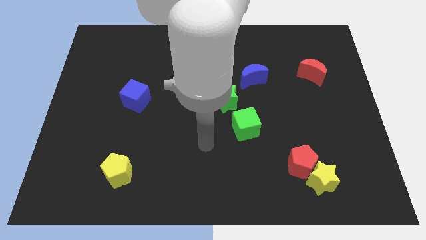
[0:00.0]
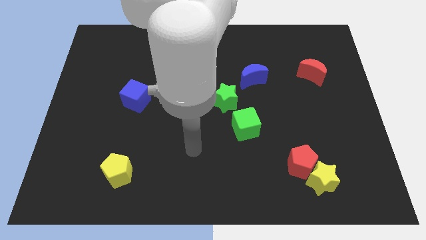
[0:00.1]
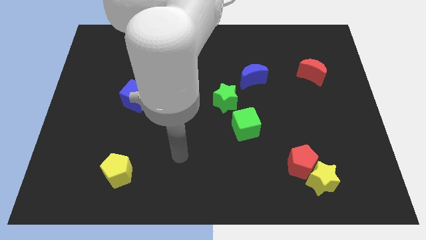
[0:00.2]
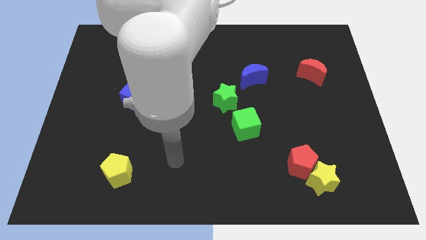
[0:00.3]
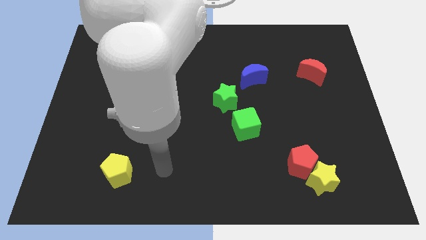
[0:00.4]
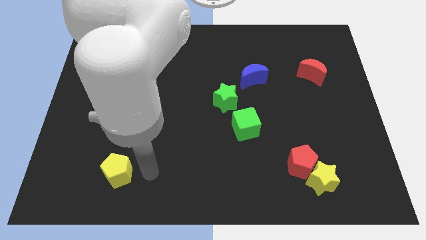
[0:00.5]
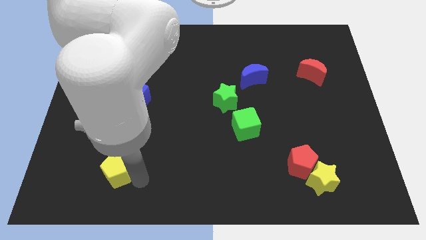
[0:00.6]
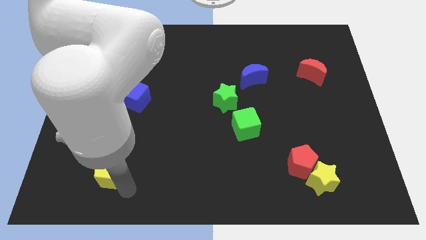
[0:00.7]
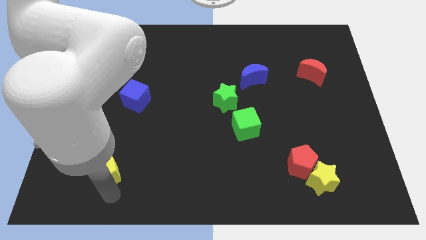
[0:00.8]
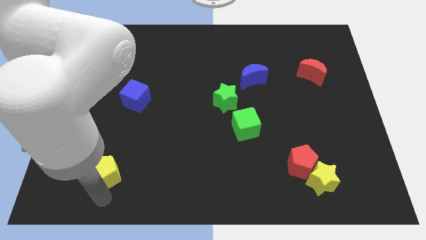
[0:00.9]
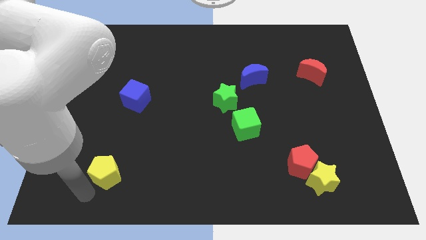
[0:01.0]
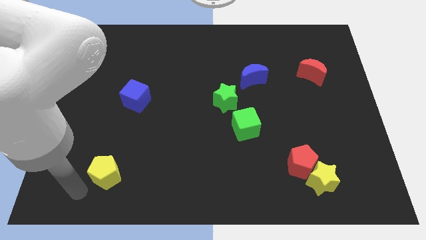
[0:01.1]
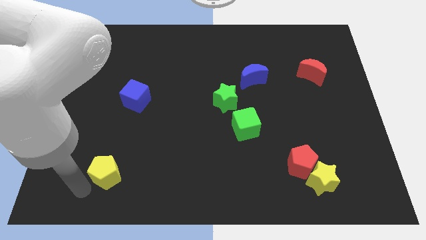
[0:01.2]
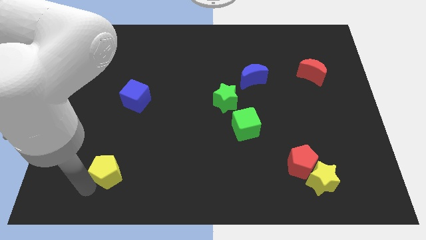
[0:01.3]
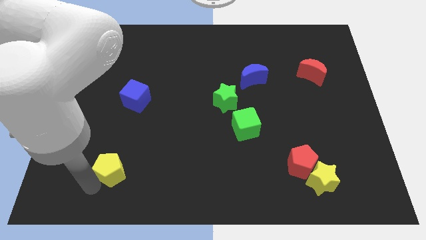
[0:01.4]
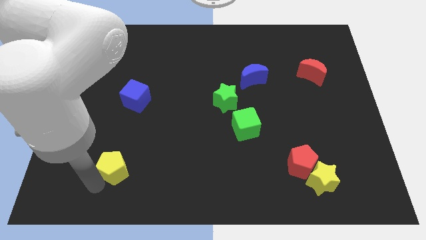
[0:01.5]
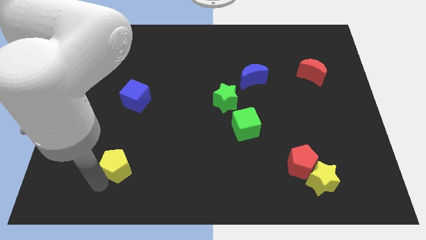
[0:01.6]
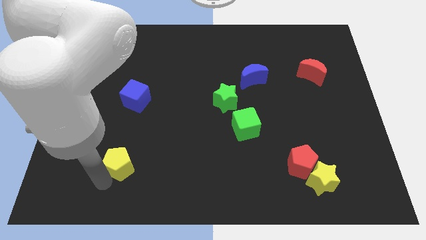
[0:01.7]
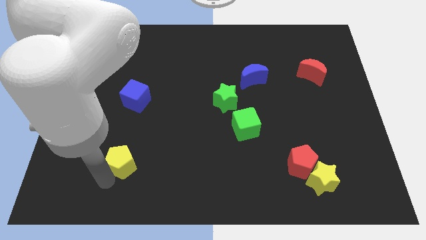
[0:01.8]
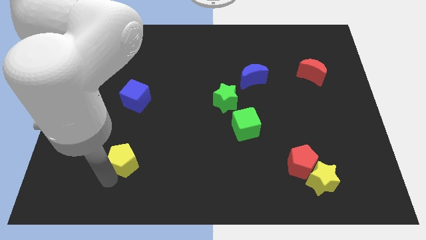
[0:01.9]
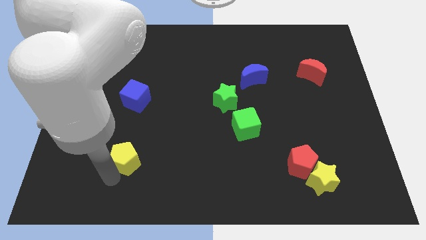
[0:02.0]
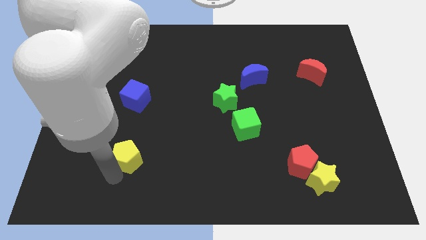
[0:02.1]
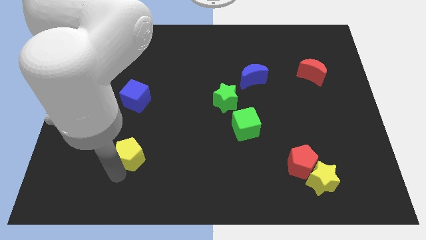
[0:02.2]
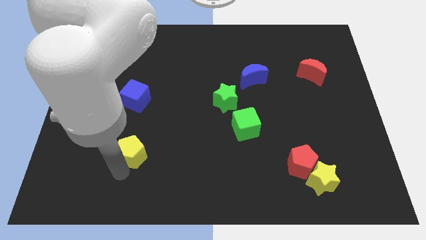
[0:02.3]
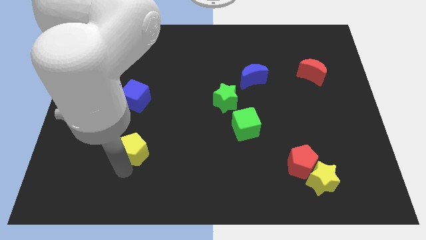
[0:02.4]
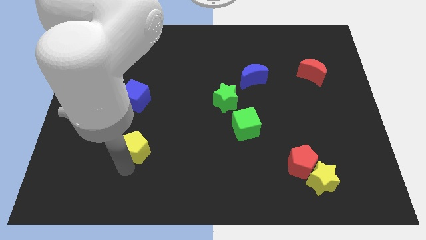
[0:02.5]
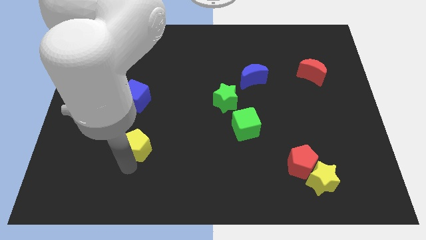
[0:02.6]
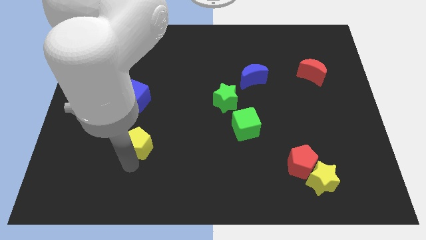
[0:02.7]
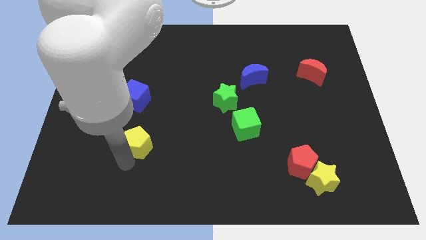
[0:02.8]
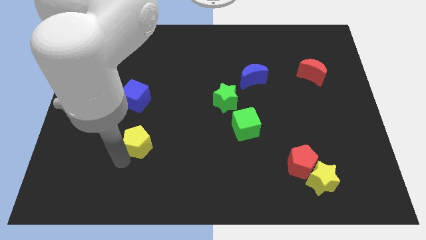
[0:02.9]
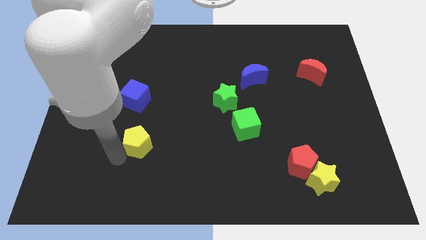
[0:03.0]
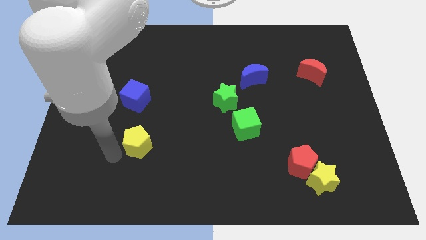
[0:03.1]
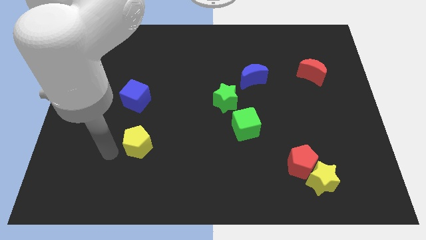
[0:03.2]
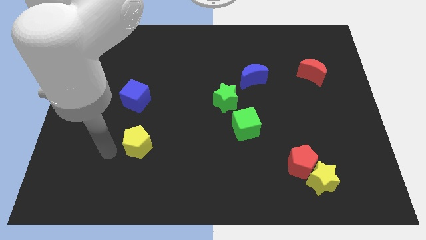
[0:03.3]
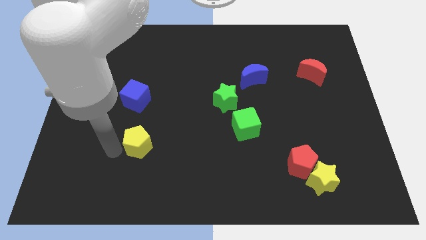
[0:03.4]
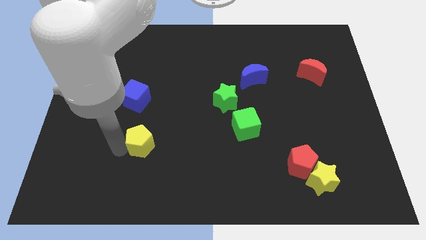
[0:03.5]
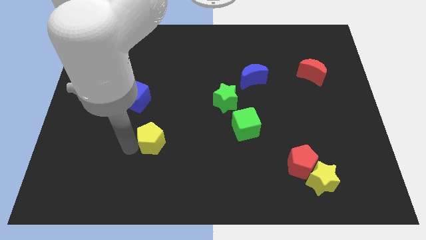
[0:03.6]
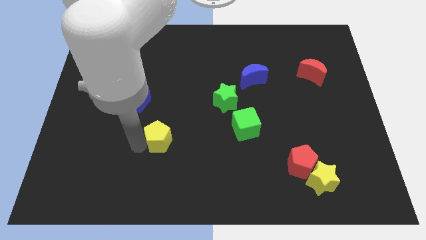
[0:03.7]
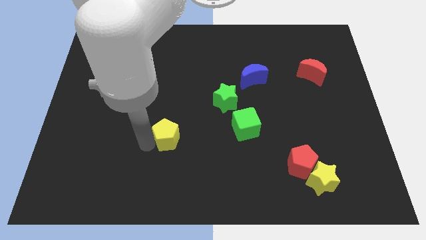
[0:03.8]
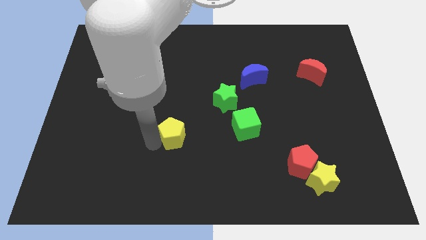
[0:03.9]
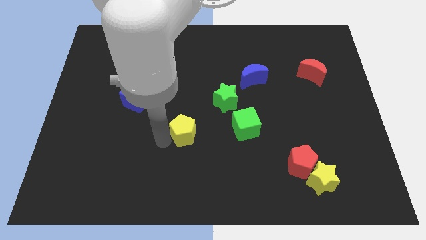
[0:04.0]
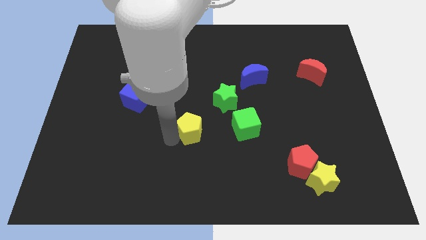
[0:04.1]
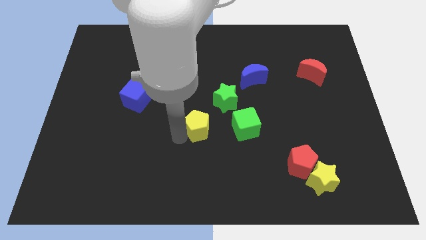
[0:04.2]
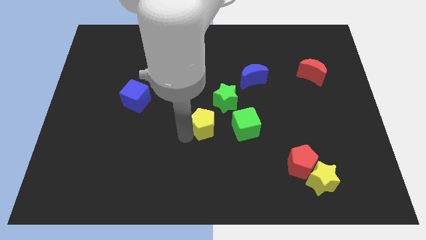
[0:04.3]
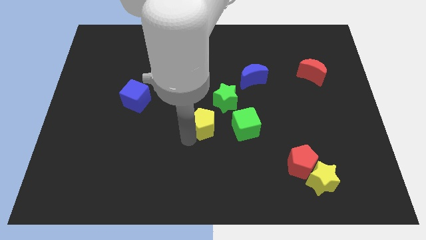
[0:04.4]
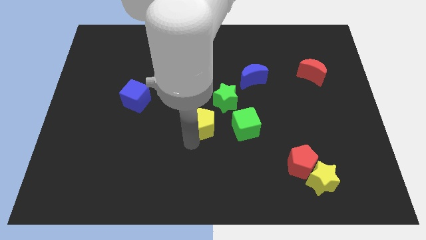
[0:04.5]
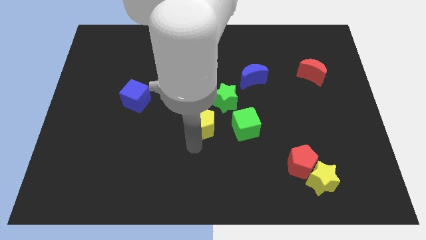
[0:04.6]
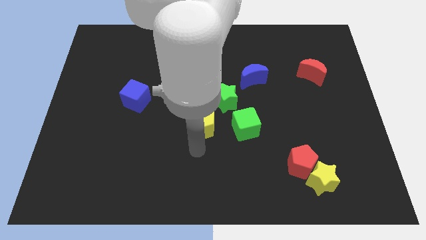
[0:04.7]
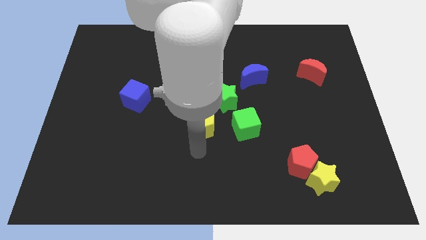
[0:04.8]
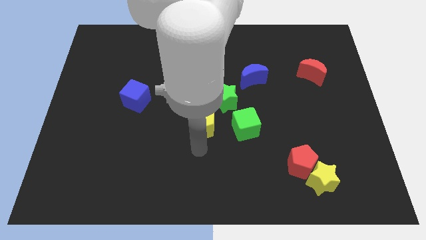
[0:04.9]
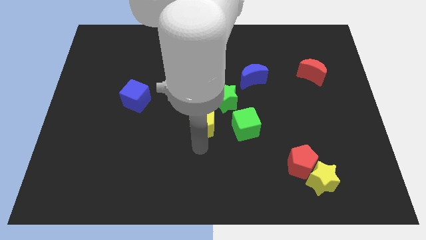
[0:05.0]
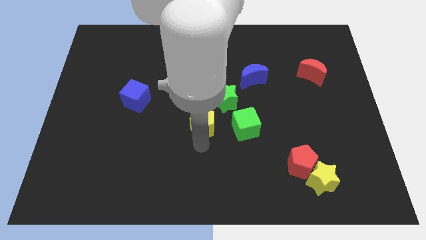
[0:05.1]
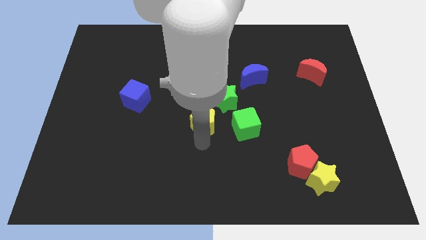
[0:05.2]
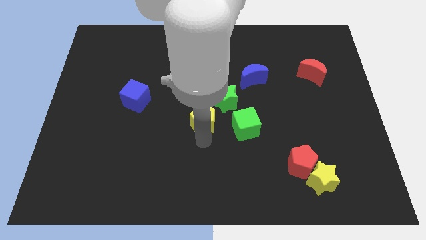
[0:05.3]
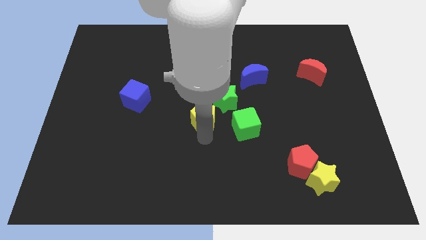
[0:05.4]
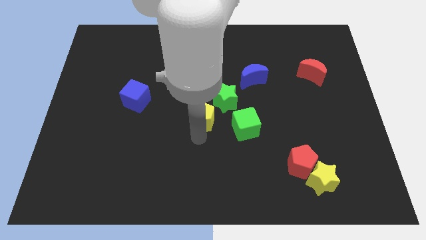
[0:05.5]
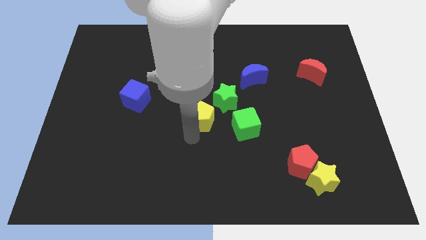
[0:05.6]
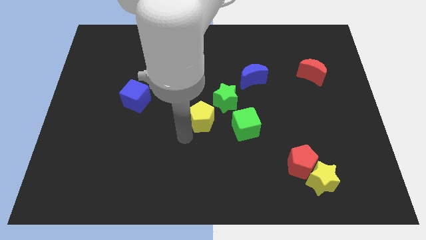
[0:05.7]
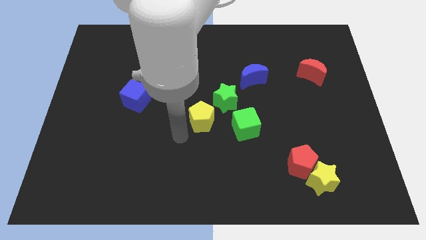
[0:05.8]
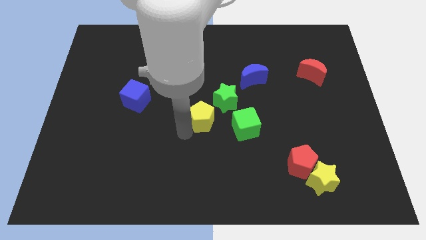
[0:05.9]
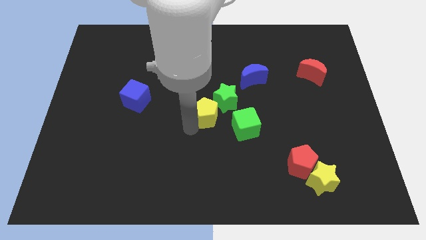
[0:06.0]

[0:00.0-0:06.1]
move the yellow pentagon to the green star

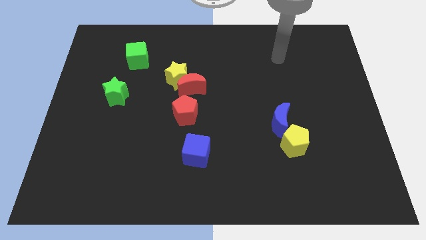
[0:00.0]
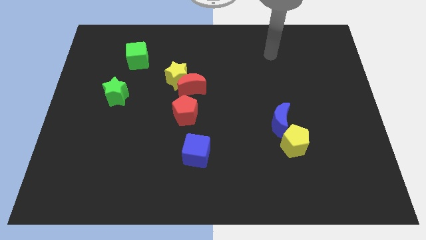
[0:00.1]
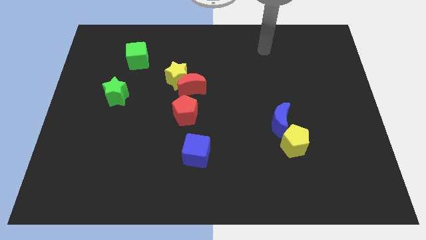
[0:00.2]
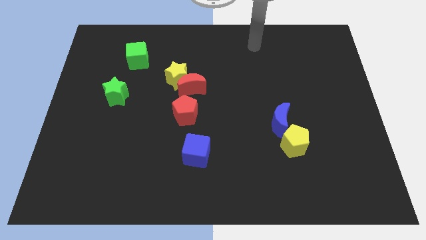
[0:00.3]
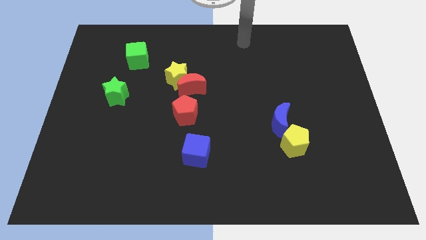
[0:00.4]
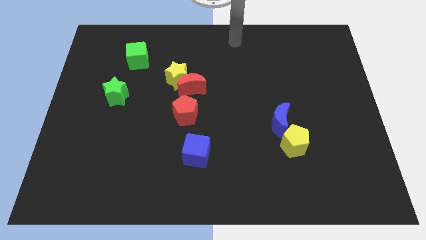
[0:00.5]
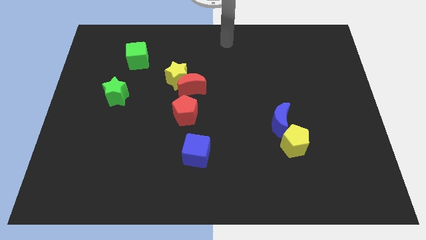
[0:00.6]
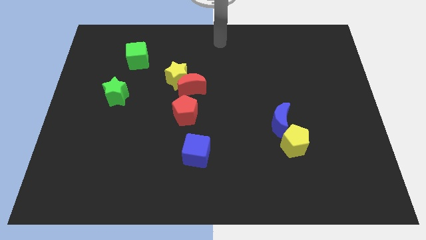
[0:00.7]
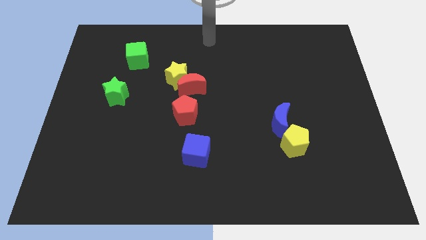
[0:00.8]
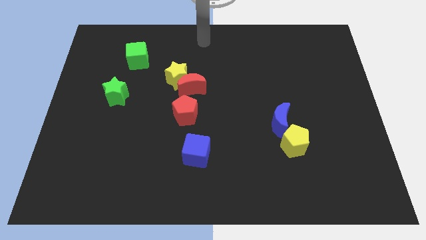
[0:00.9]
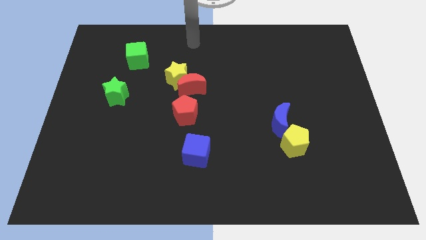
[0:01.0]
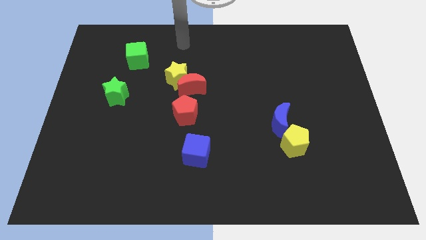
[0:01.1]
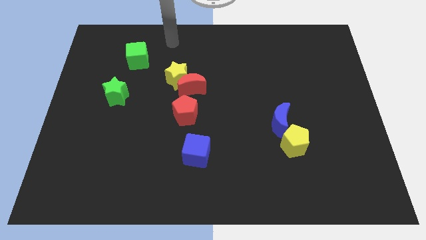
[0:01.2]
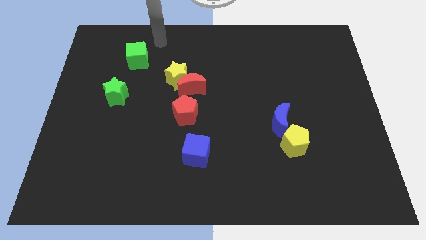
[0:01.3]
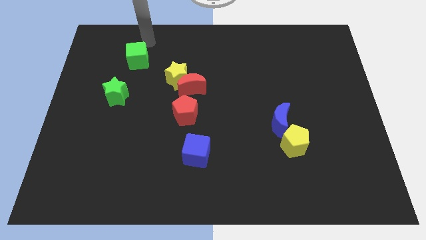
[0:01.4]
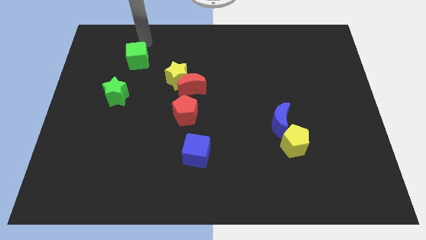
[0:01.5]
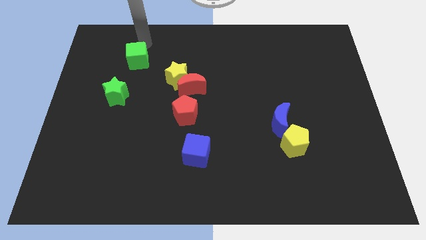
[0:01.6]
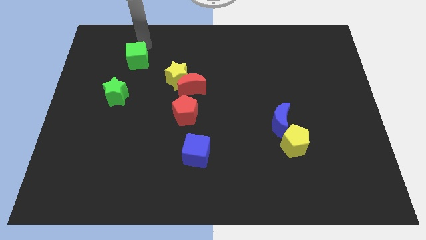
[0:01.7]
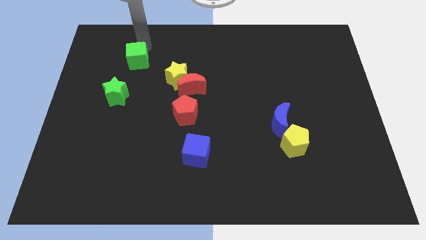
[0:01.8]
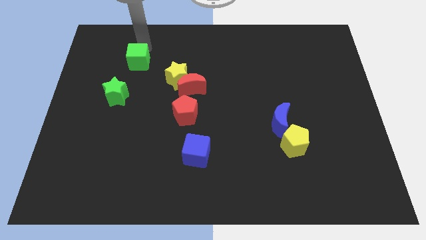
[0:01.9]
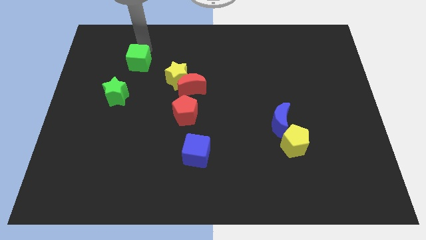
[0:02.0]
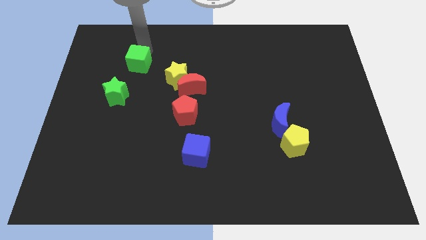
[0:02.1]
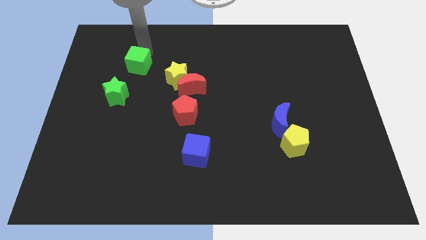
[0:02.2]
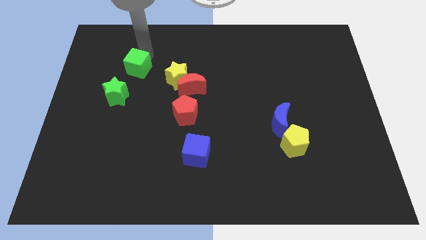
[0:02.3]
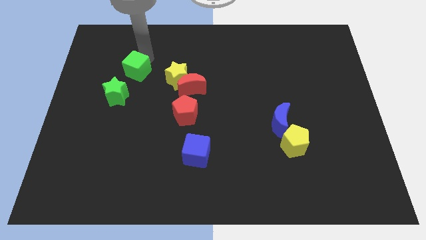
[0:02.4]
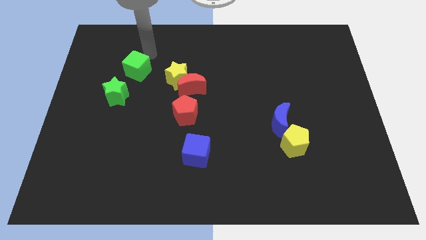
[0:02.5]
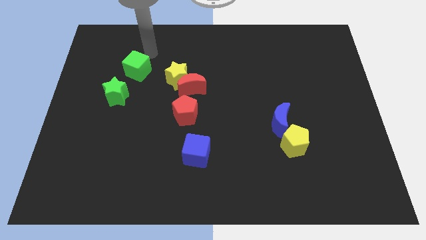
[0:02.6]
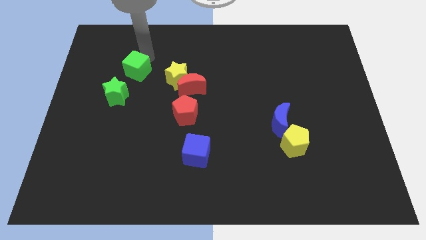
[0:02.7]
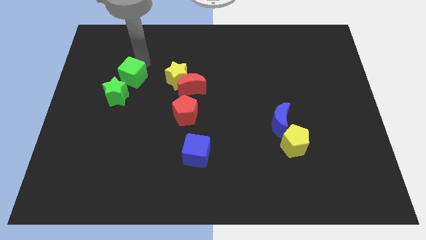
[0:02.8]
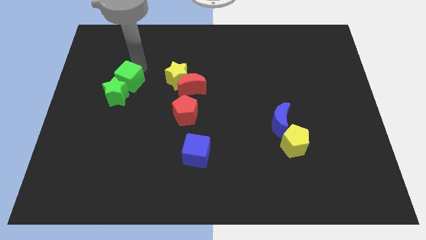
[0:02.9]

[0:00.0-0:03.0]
move the green cube next to the green star
